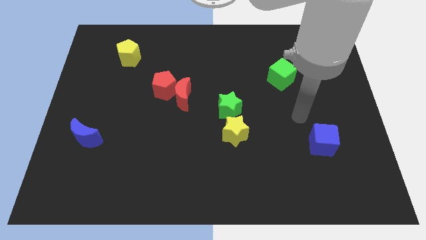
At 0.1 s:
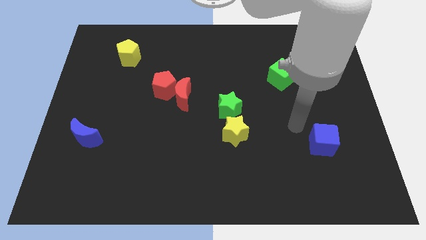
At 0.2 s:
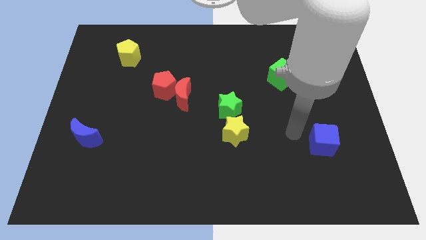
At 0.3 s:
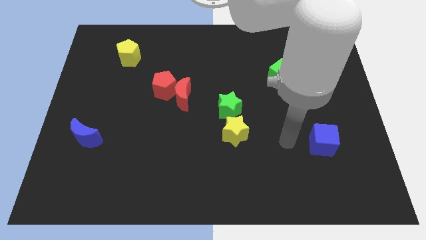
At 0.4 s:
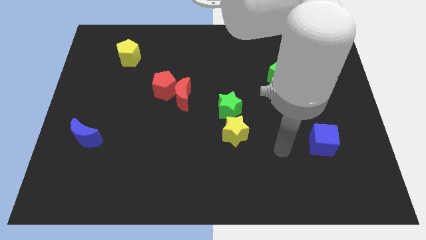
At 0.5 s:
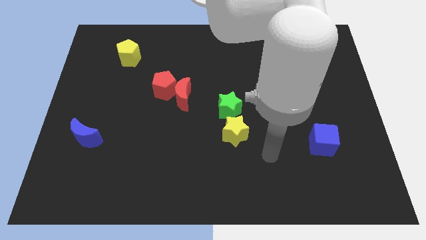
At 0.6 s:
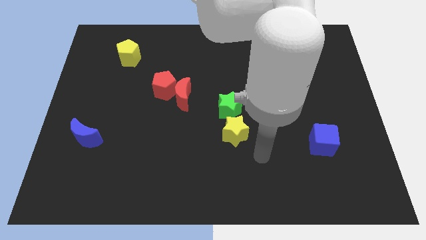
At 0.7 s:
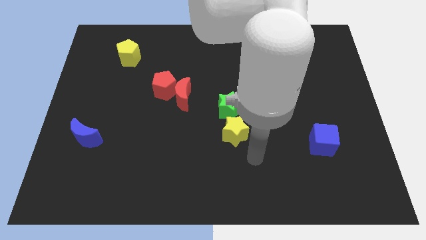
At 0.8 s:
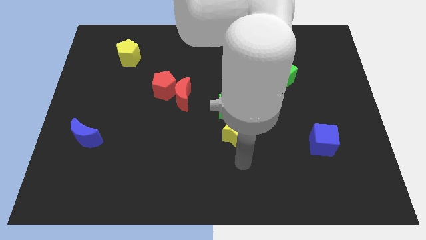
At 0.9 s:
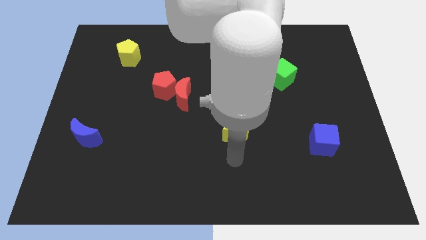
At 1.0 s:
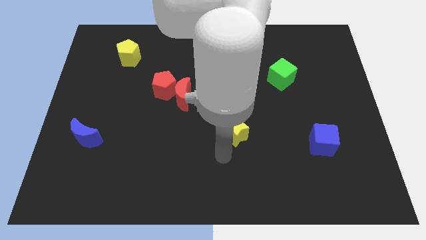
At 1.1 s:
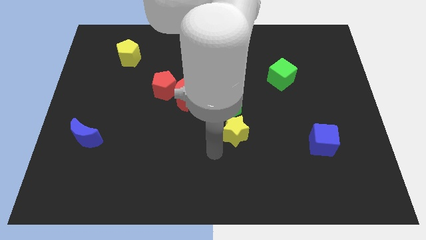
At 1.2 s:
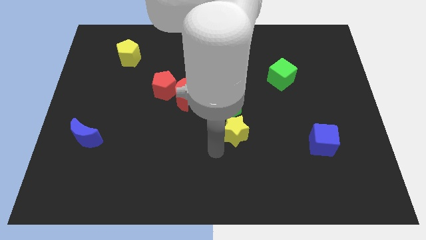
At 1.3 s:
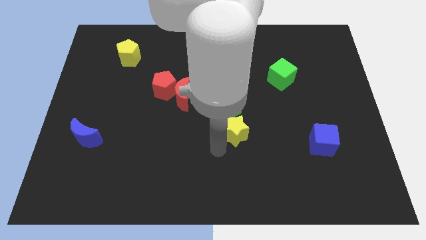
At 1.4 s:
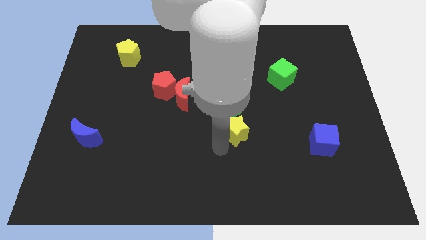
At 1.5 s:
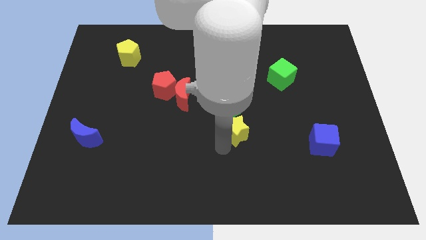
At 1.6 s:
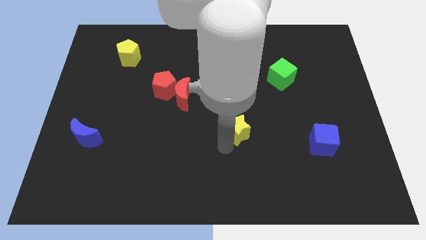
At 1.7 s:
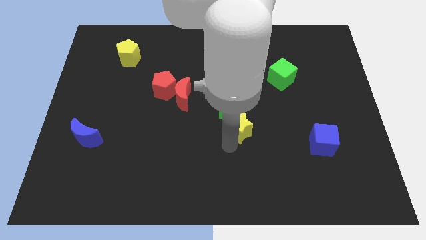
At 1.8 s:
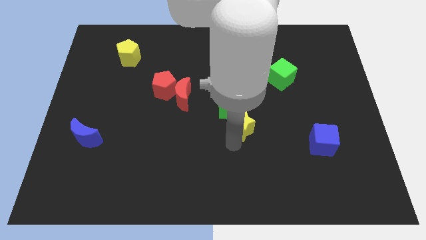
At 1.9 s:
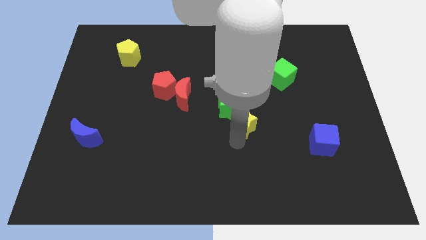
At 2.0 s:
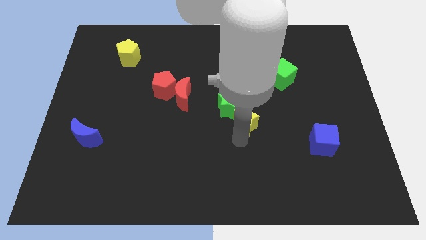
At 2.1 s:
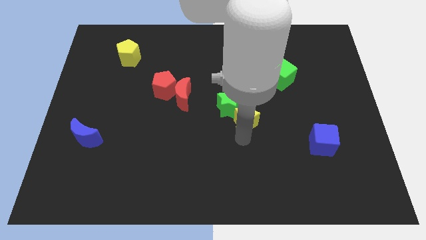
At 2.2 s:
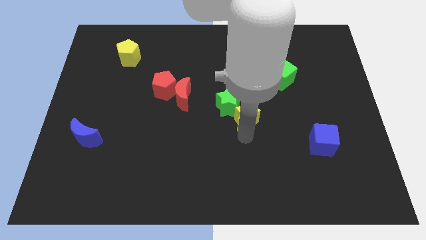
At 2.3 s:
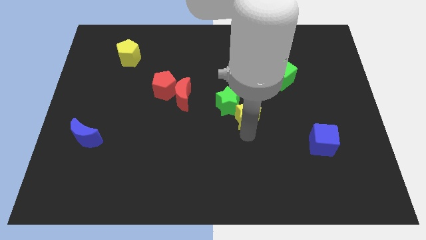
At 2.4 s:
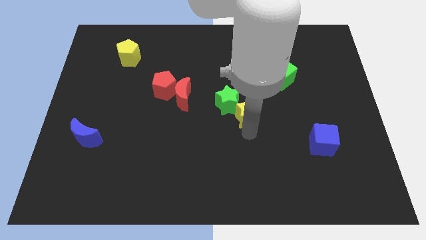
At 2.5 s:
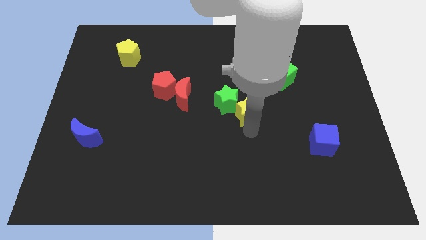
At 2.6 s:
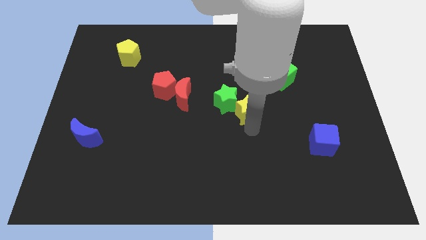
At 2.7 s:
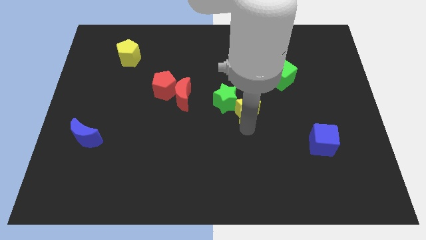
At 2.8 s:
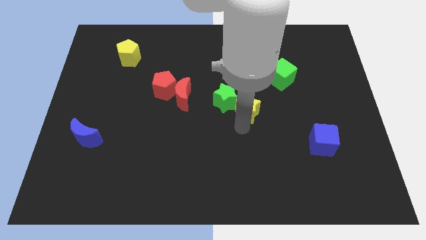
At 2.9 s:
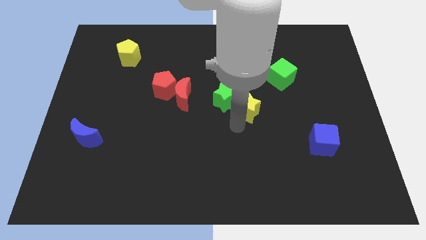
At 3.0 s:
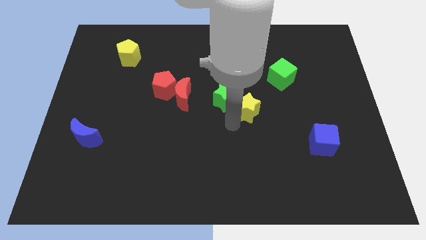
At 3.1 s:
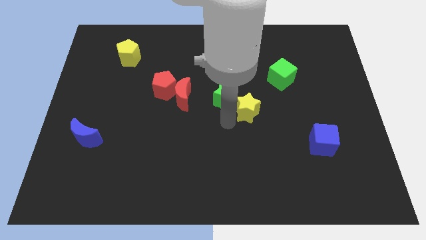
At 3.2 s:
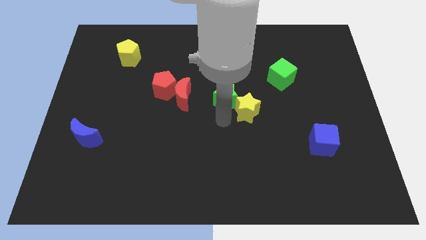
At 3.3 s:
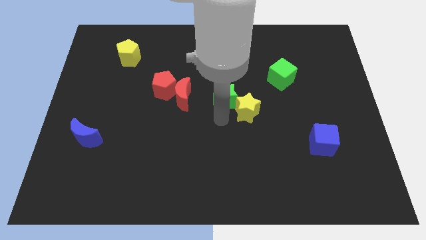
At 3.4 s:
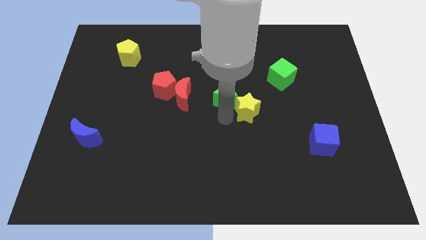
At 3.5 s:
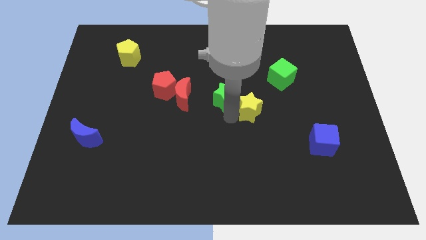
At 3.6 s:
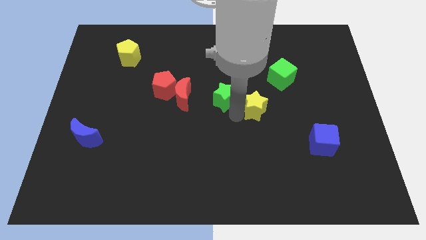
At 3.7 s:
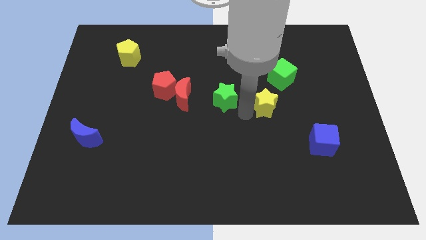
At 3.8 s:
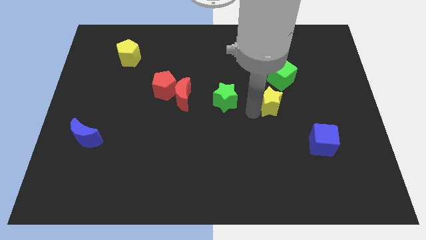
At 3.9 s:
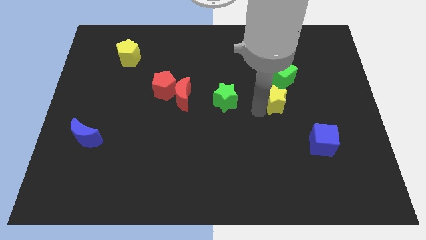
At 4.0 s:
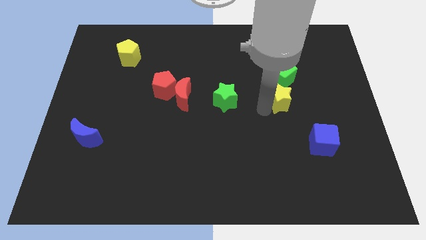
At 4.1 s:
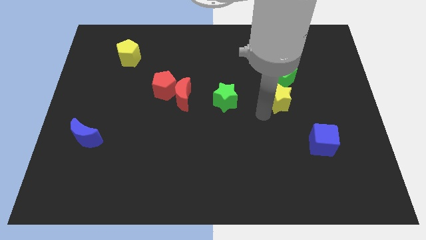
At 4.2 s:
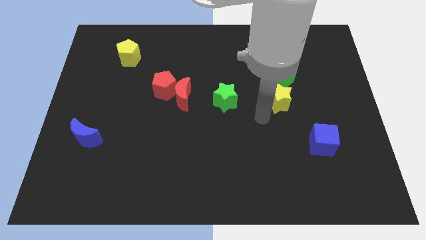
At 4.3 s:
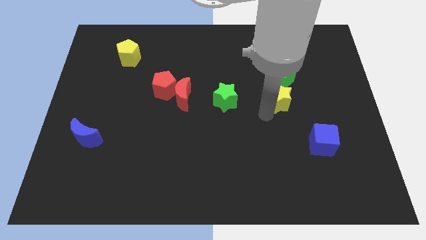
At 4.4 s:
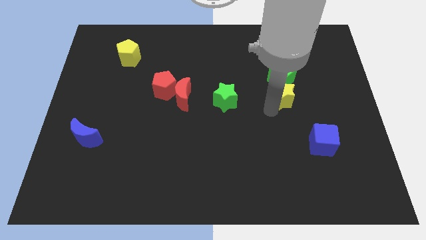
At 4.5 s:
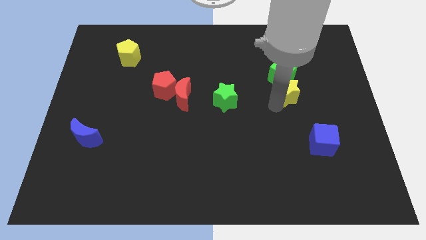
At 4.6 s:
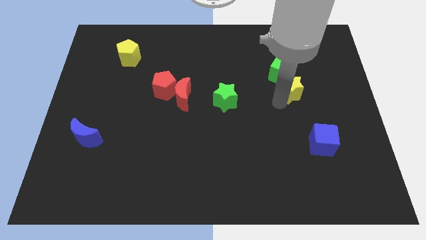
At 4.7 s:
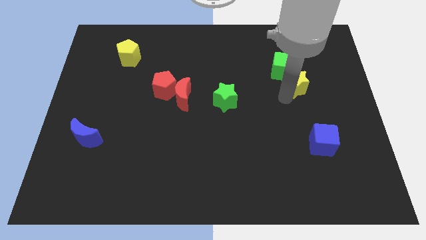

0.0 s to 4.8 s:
push the yellow star up and then right

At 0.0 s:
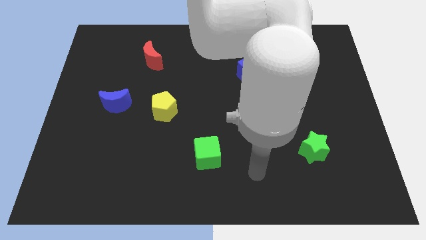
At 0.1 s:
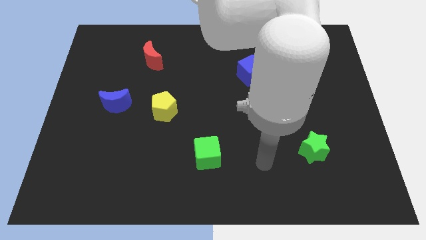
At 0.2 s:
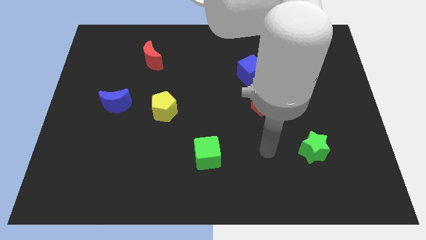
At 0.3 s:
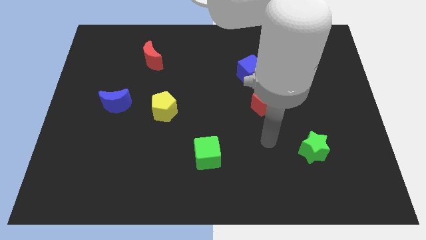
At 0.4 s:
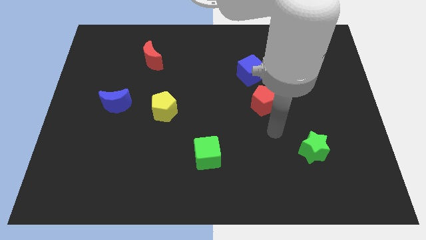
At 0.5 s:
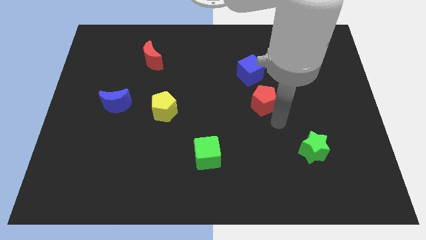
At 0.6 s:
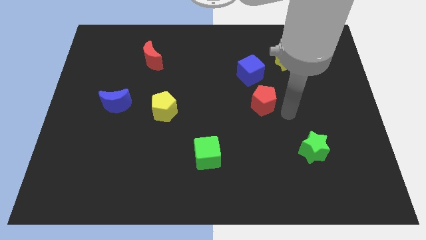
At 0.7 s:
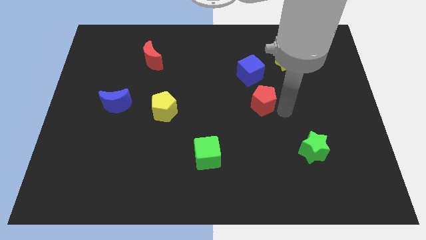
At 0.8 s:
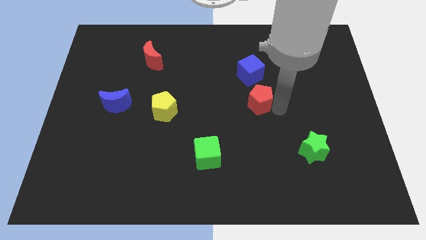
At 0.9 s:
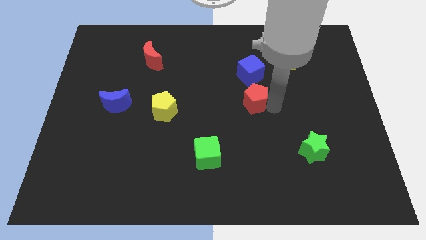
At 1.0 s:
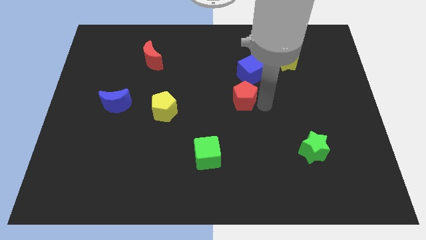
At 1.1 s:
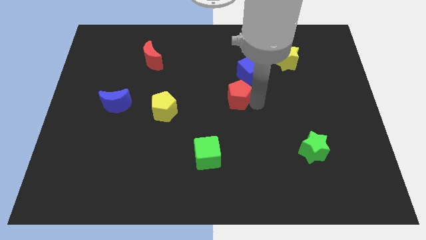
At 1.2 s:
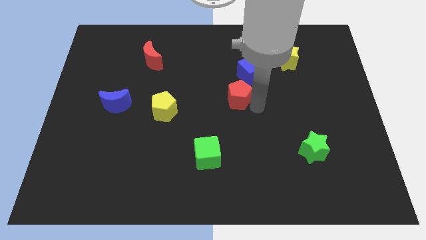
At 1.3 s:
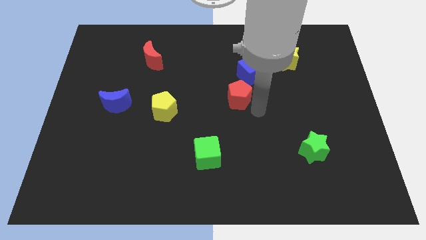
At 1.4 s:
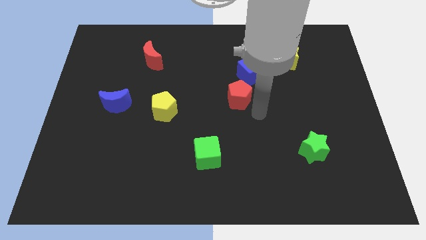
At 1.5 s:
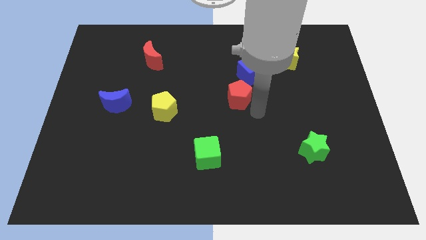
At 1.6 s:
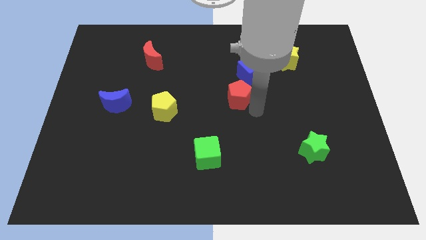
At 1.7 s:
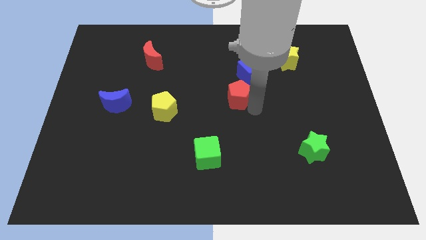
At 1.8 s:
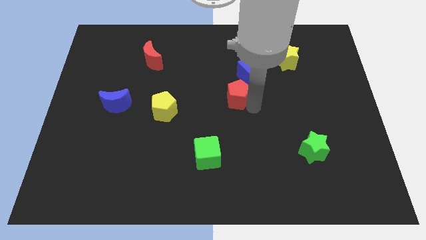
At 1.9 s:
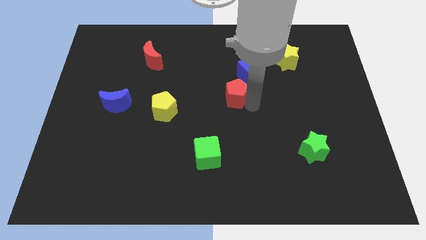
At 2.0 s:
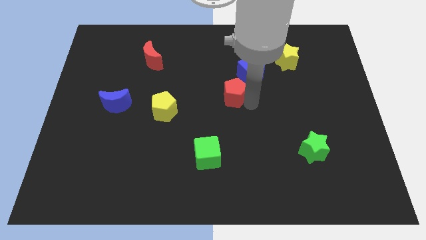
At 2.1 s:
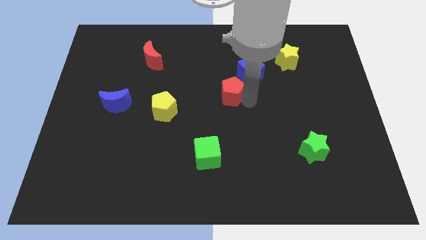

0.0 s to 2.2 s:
slightly move the red pentagon diagonally up and left

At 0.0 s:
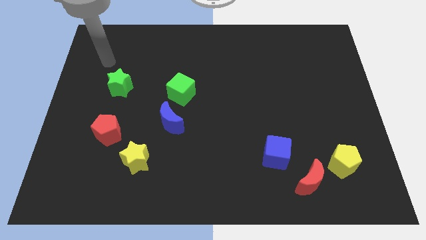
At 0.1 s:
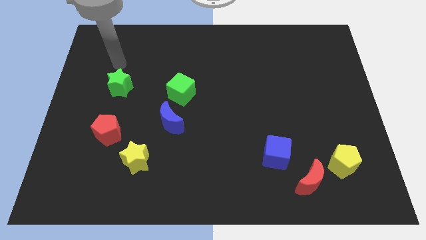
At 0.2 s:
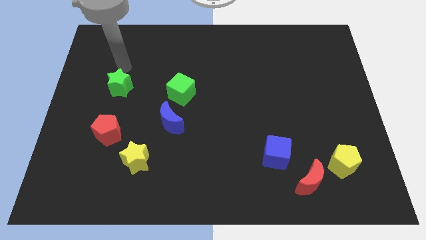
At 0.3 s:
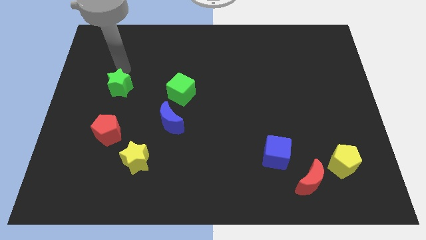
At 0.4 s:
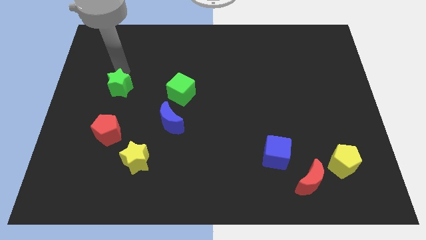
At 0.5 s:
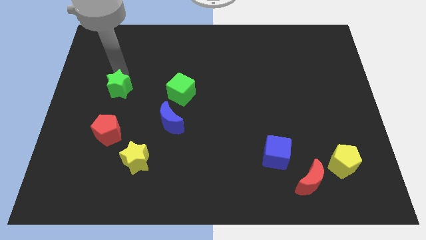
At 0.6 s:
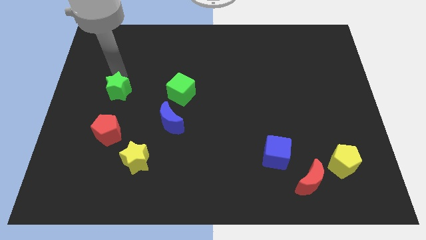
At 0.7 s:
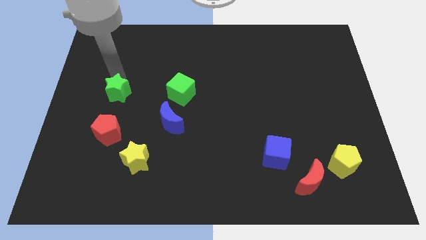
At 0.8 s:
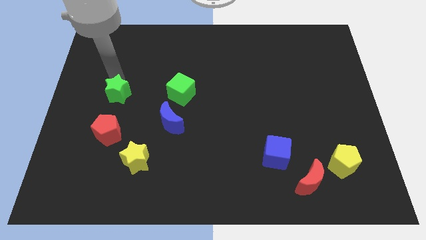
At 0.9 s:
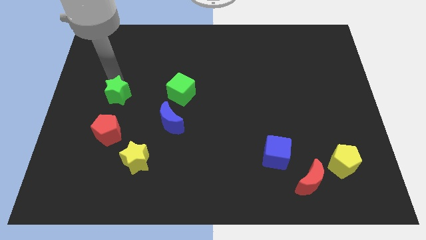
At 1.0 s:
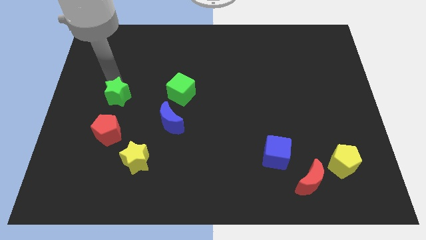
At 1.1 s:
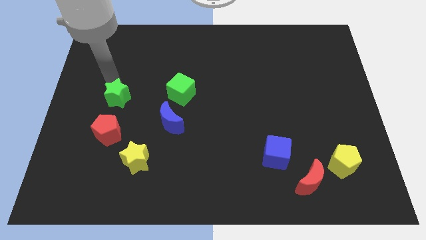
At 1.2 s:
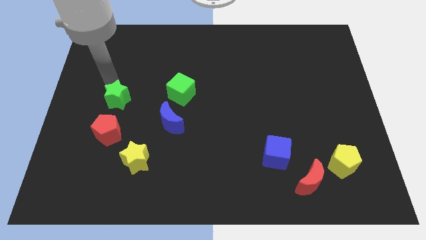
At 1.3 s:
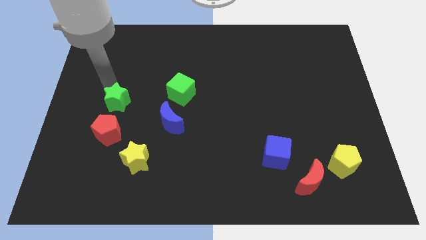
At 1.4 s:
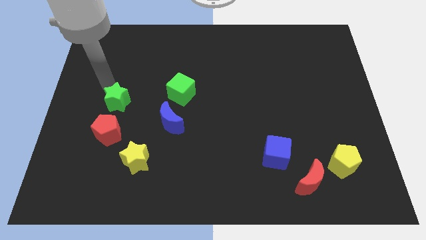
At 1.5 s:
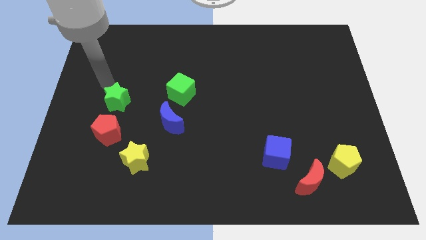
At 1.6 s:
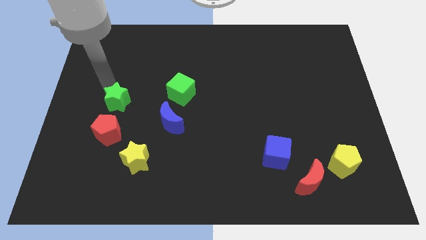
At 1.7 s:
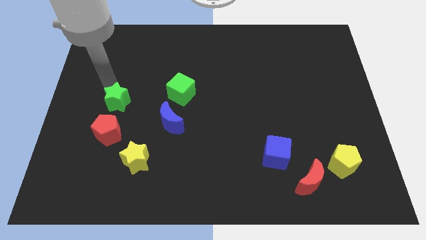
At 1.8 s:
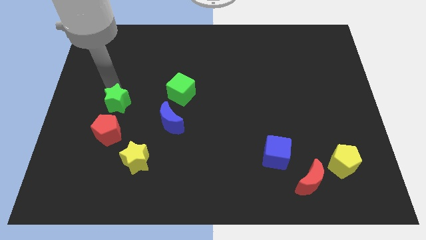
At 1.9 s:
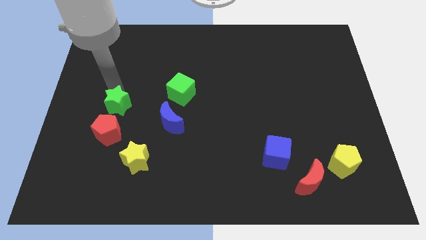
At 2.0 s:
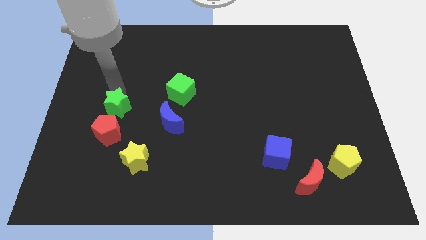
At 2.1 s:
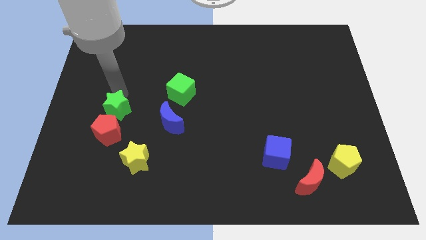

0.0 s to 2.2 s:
slightly move the green star downwards
